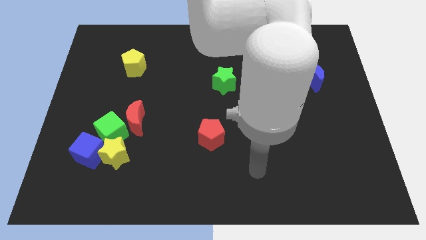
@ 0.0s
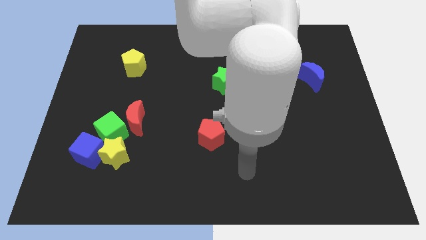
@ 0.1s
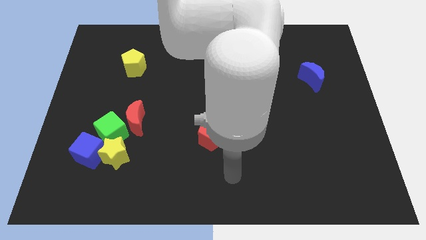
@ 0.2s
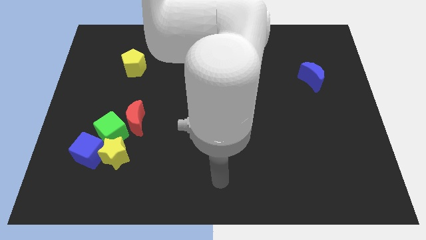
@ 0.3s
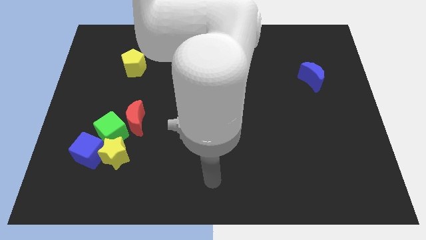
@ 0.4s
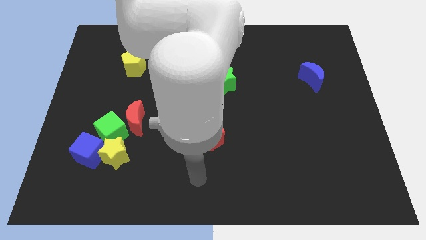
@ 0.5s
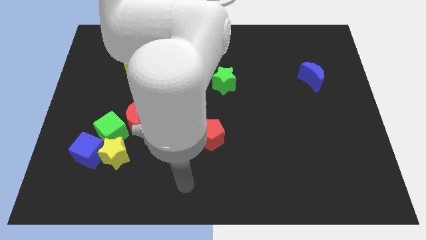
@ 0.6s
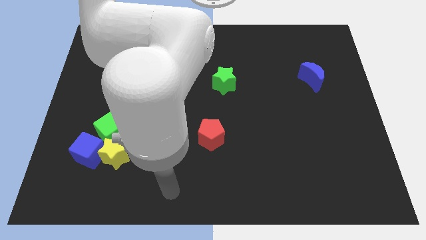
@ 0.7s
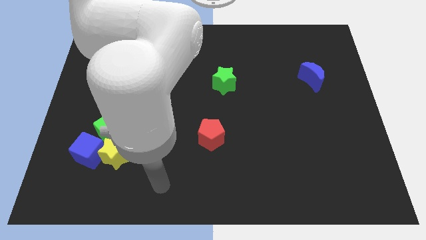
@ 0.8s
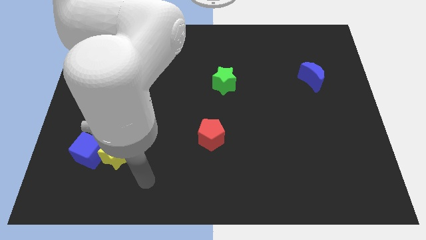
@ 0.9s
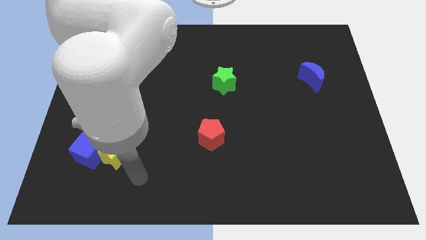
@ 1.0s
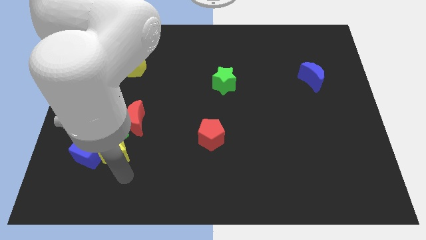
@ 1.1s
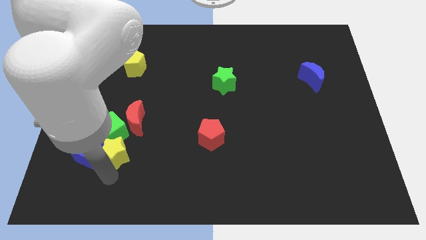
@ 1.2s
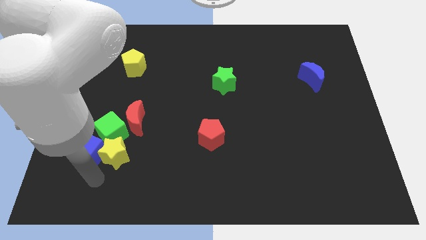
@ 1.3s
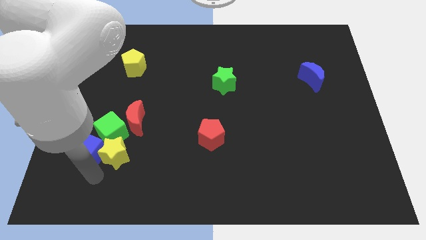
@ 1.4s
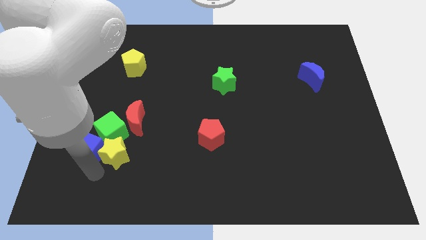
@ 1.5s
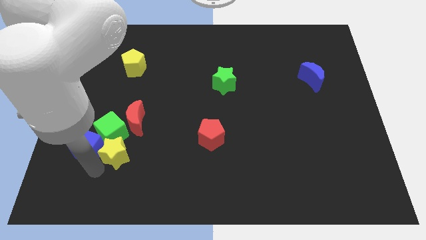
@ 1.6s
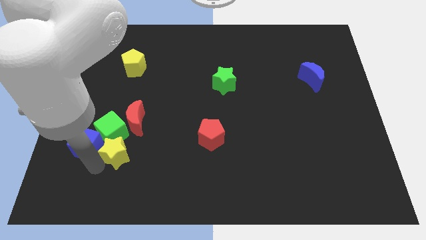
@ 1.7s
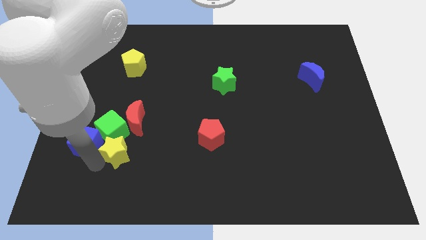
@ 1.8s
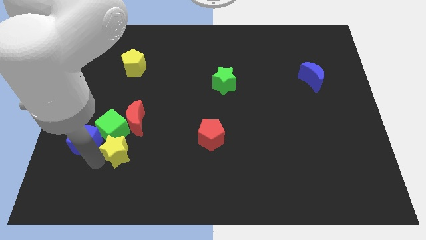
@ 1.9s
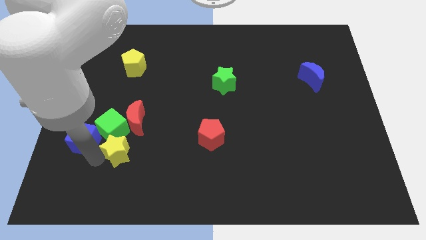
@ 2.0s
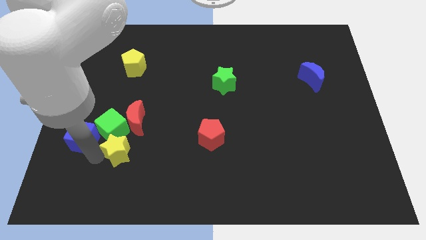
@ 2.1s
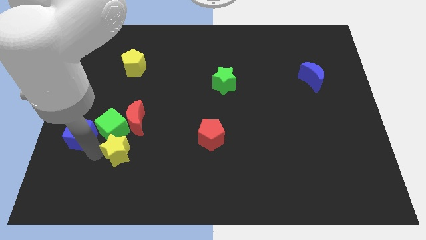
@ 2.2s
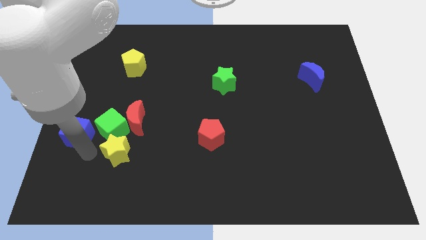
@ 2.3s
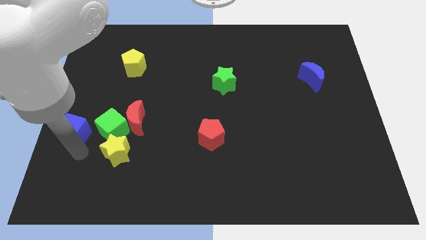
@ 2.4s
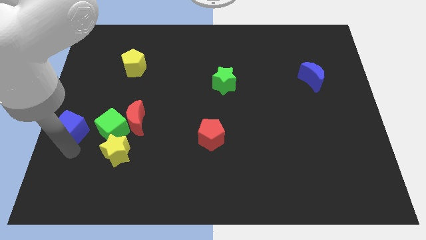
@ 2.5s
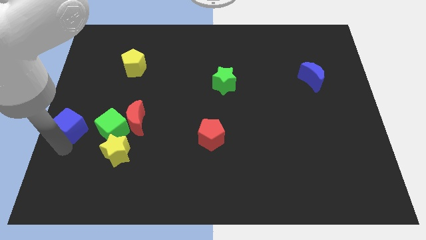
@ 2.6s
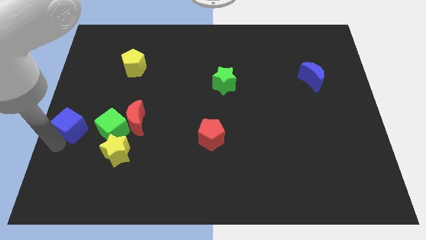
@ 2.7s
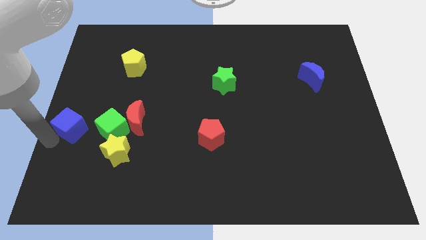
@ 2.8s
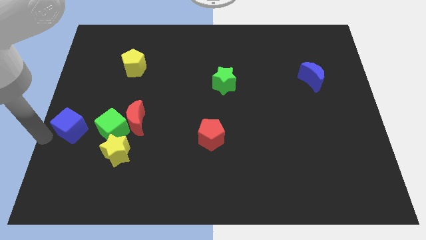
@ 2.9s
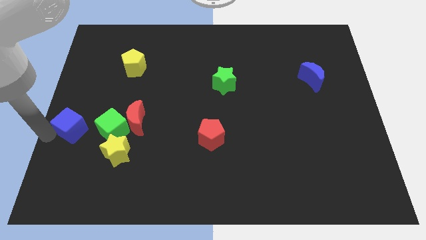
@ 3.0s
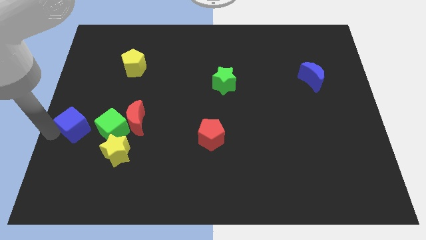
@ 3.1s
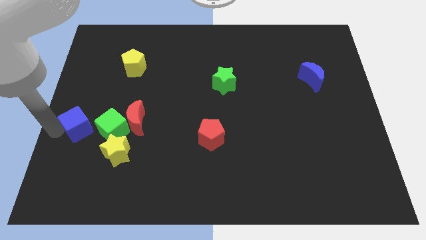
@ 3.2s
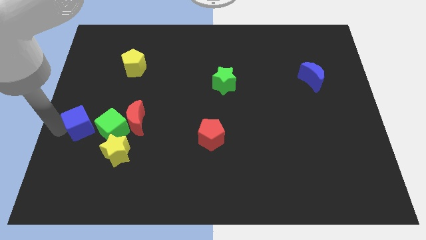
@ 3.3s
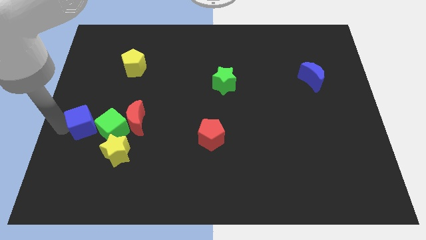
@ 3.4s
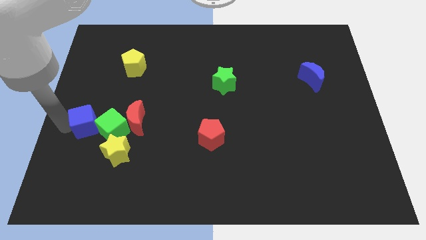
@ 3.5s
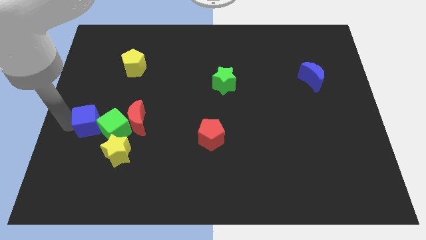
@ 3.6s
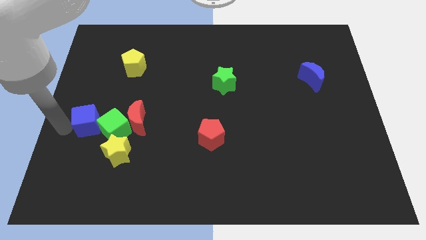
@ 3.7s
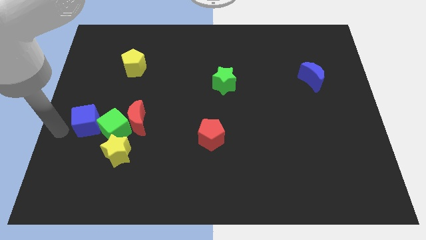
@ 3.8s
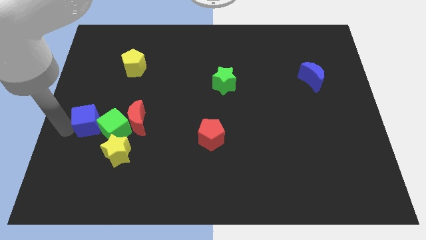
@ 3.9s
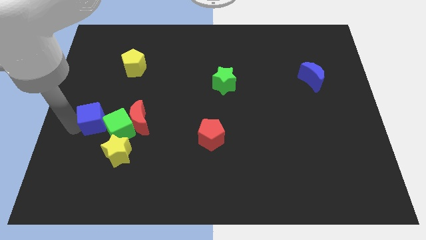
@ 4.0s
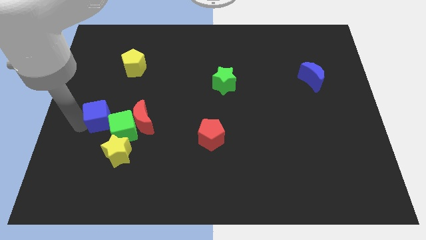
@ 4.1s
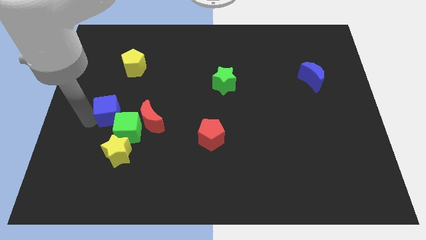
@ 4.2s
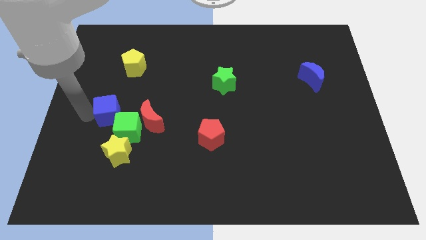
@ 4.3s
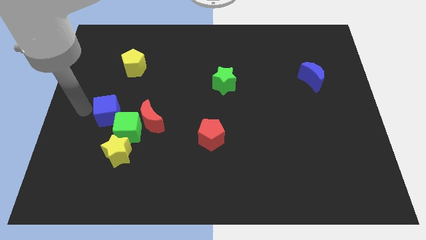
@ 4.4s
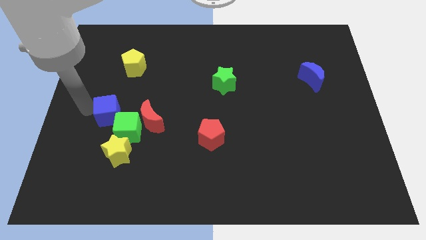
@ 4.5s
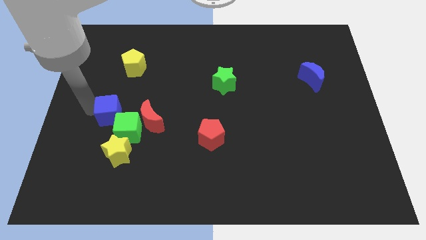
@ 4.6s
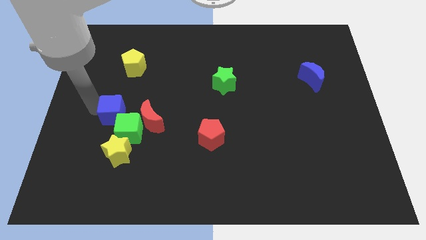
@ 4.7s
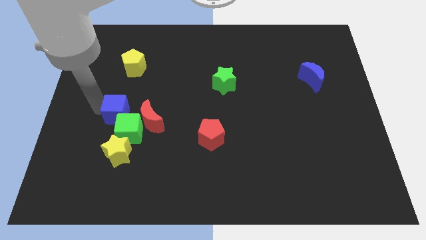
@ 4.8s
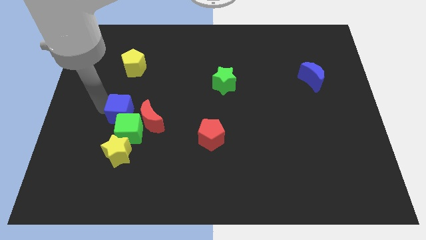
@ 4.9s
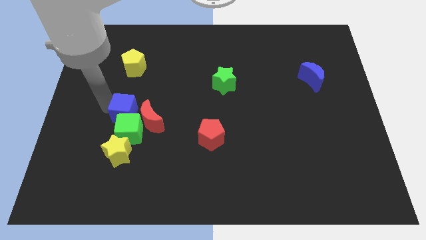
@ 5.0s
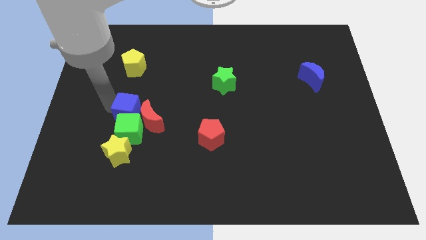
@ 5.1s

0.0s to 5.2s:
put the blue cube close to the red moon

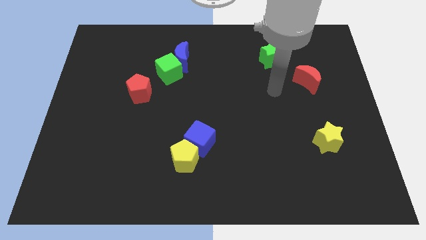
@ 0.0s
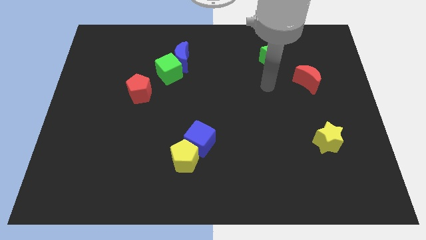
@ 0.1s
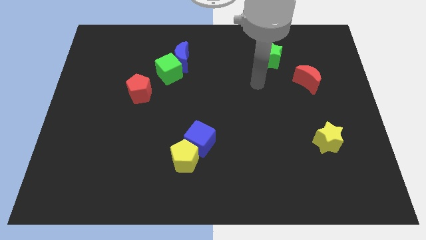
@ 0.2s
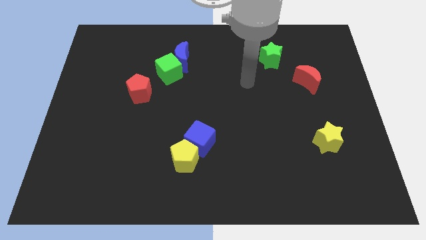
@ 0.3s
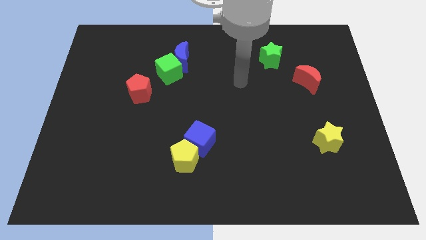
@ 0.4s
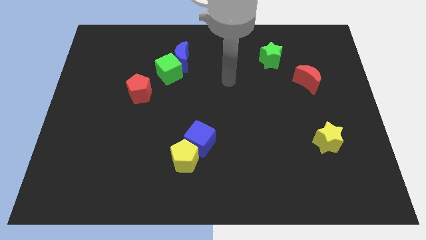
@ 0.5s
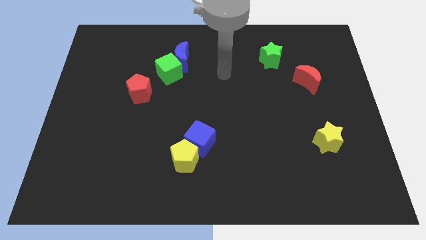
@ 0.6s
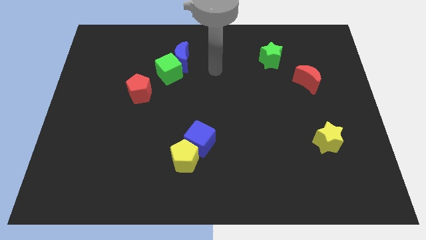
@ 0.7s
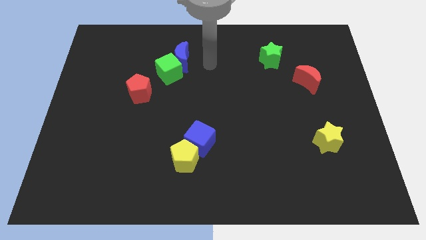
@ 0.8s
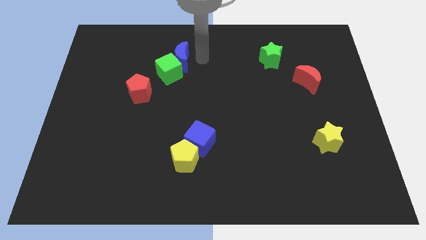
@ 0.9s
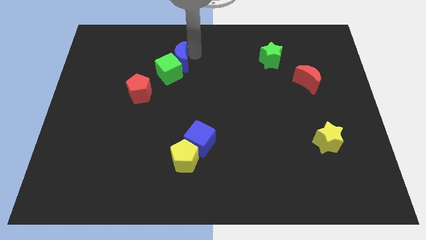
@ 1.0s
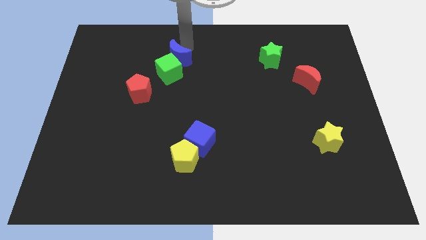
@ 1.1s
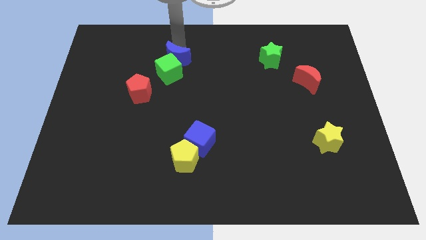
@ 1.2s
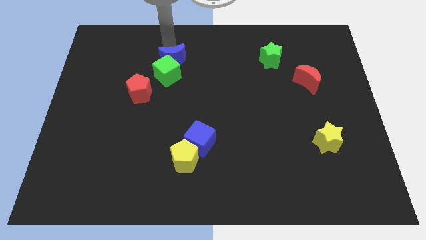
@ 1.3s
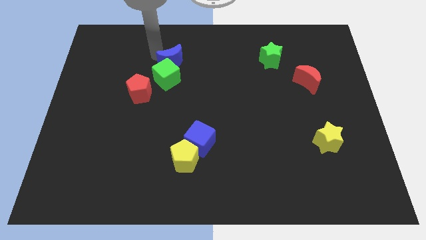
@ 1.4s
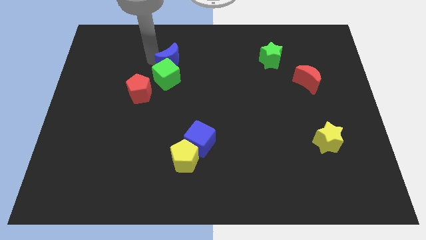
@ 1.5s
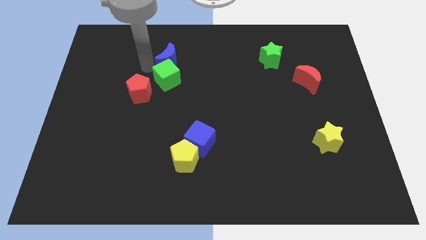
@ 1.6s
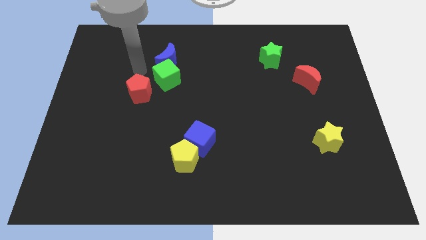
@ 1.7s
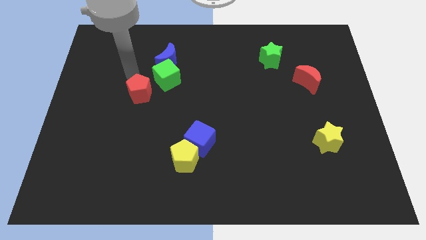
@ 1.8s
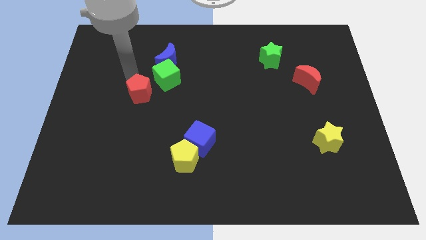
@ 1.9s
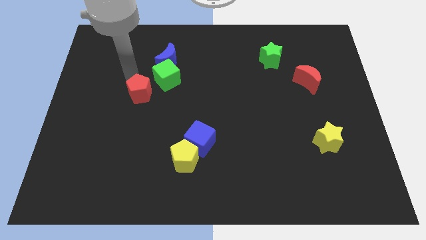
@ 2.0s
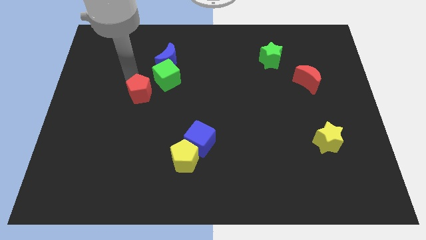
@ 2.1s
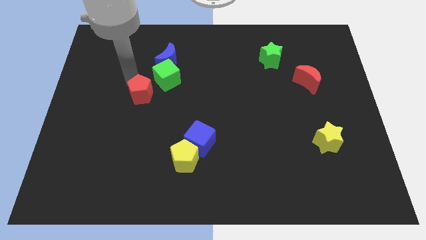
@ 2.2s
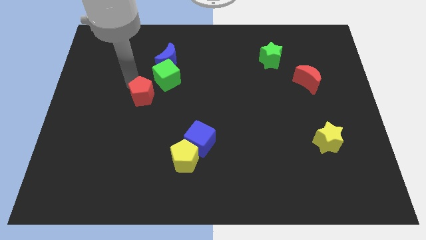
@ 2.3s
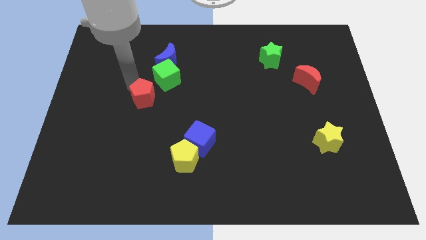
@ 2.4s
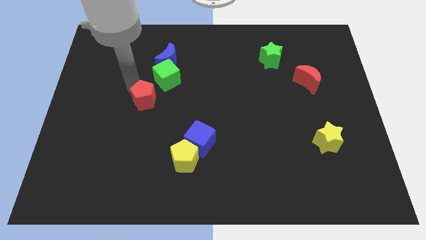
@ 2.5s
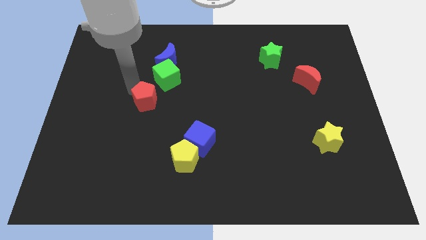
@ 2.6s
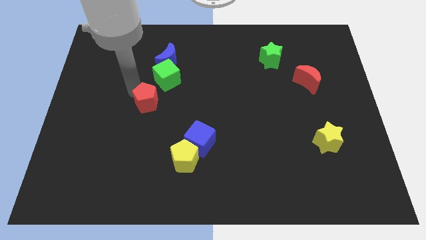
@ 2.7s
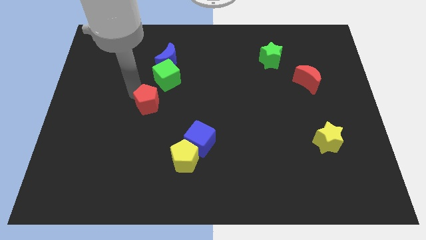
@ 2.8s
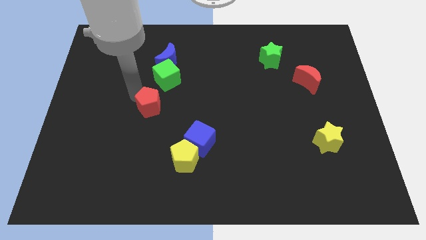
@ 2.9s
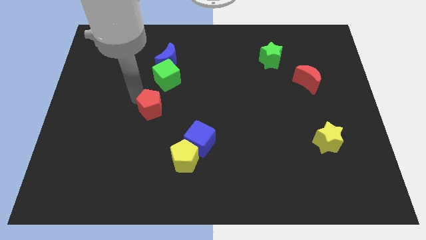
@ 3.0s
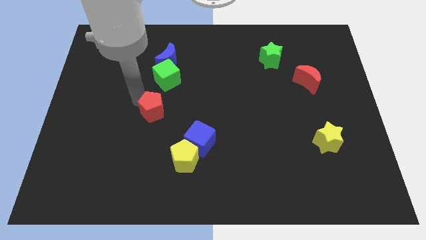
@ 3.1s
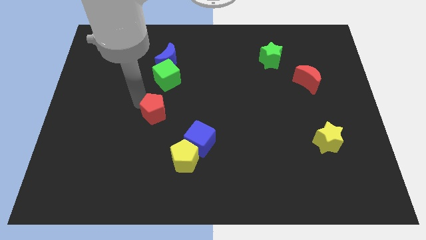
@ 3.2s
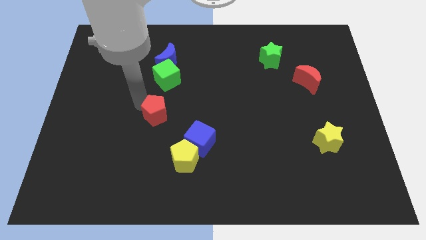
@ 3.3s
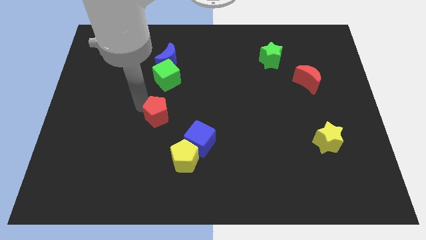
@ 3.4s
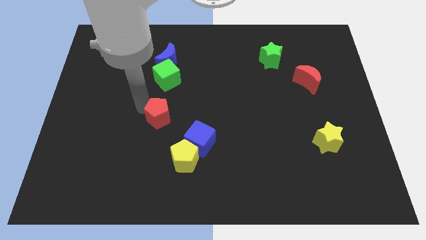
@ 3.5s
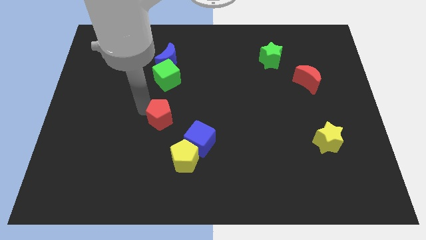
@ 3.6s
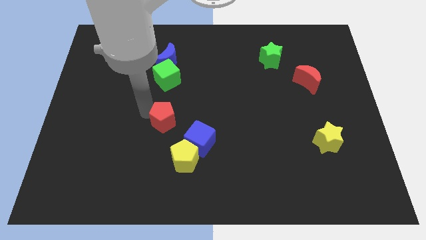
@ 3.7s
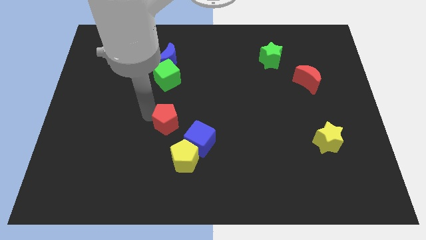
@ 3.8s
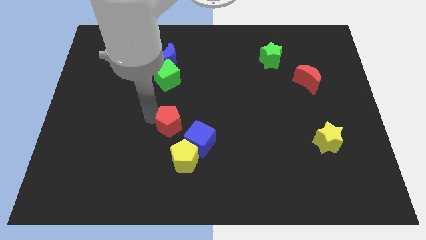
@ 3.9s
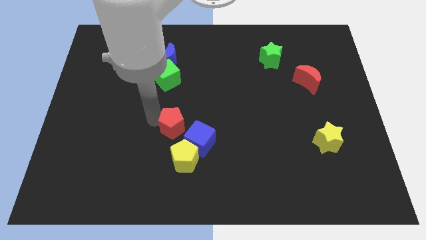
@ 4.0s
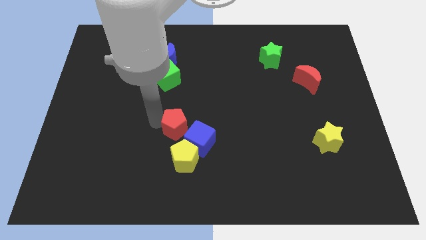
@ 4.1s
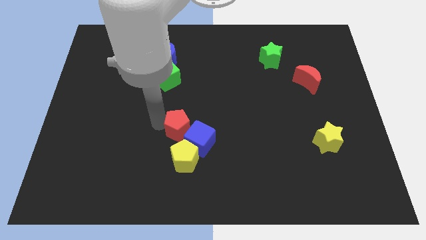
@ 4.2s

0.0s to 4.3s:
push the red pentagon towards the blue cube
